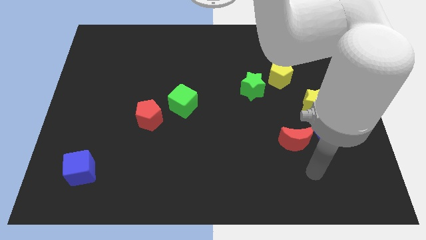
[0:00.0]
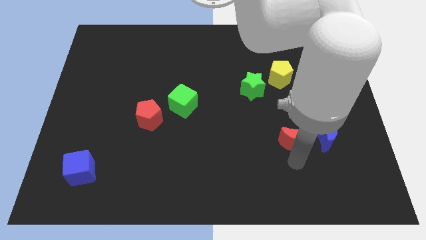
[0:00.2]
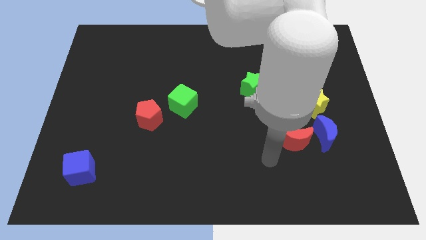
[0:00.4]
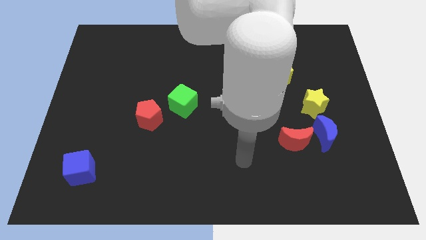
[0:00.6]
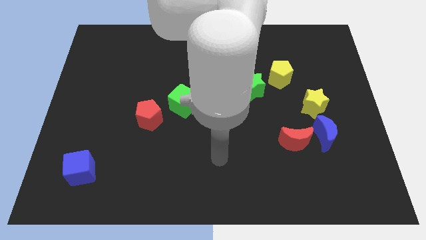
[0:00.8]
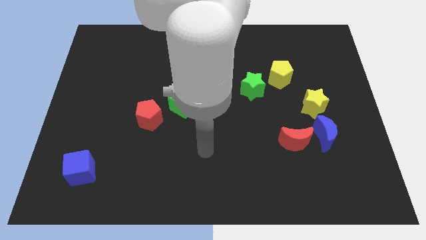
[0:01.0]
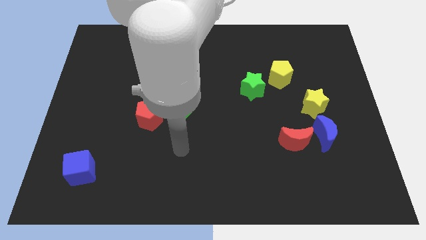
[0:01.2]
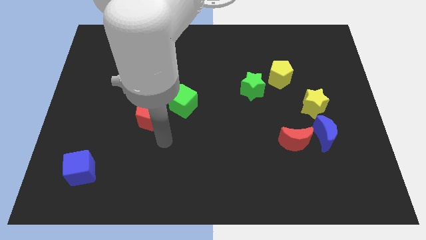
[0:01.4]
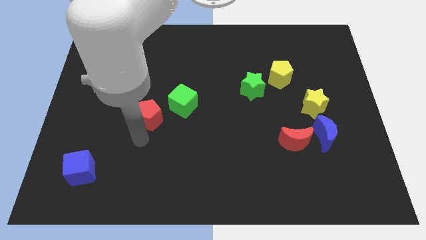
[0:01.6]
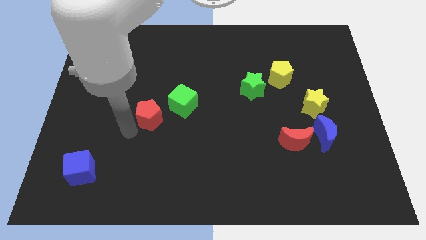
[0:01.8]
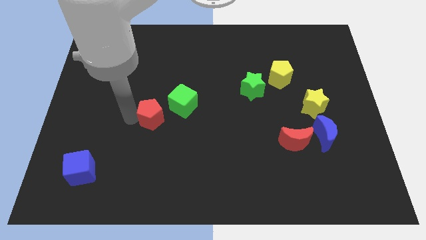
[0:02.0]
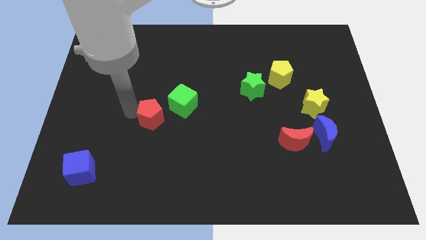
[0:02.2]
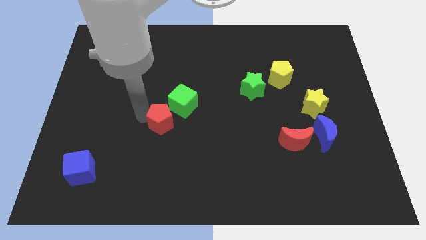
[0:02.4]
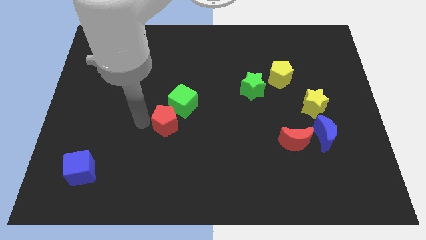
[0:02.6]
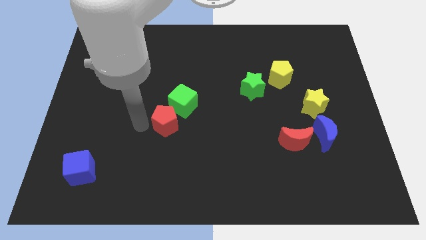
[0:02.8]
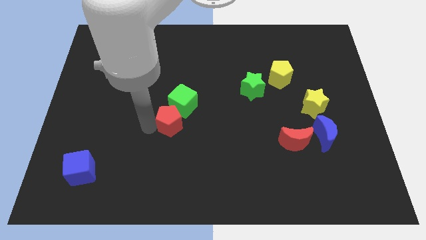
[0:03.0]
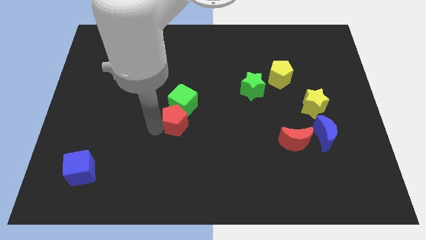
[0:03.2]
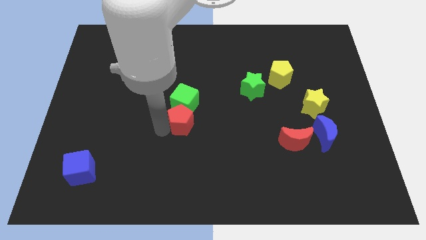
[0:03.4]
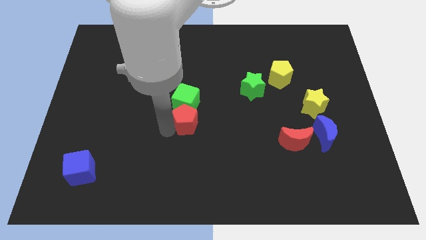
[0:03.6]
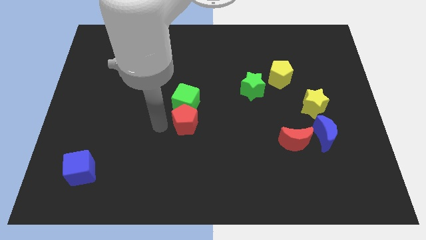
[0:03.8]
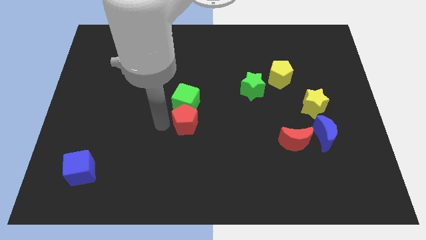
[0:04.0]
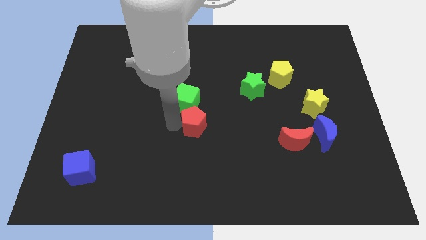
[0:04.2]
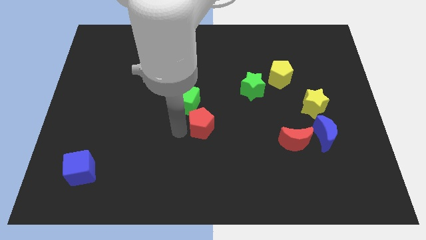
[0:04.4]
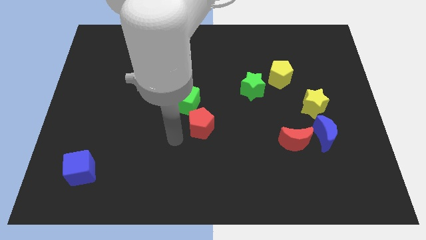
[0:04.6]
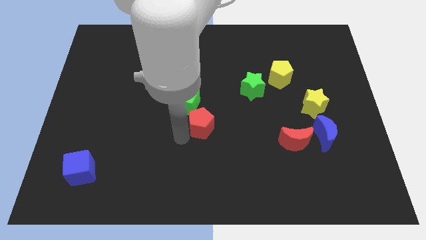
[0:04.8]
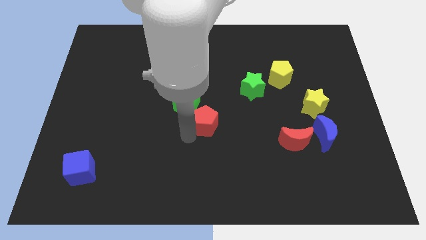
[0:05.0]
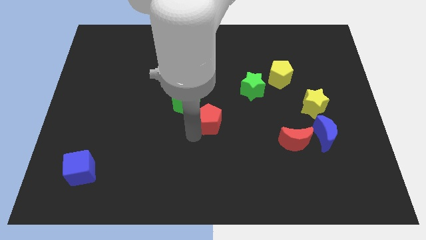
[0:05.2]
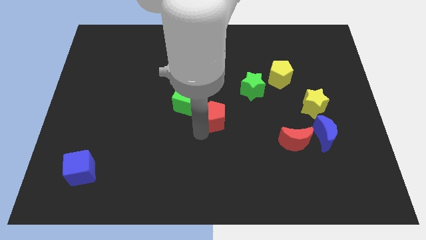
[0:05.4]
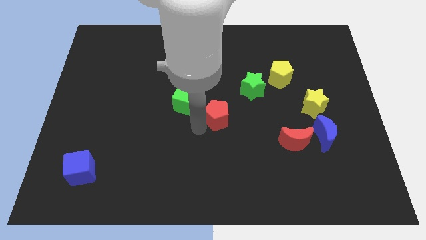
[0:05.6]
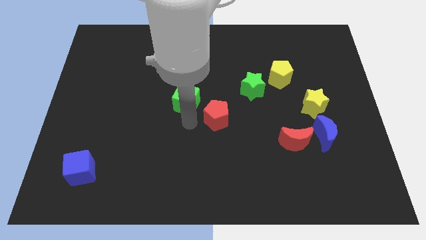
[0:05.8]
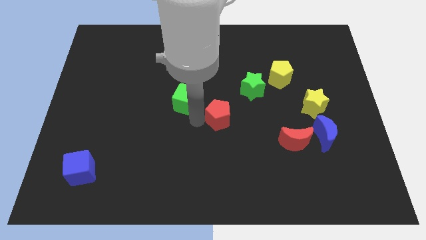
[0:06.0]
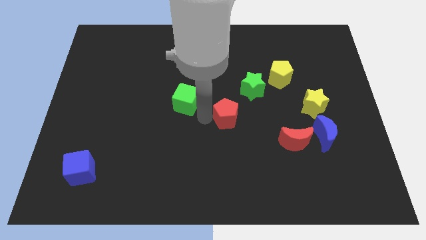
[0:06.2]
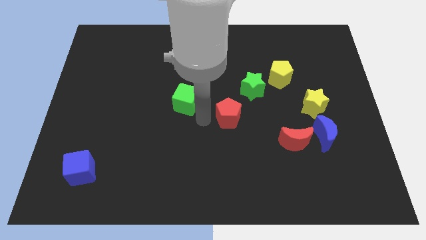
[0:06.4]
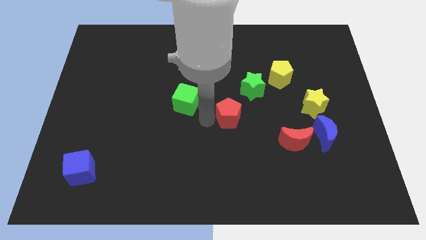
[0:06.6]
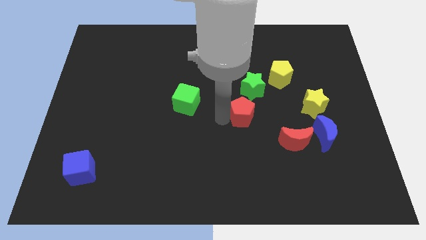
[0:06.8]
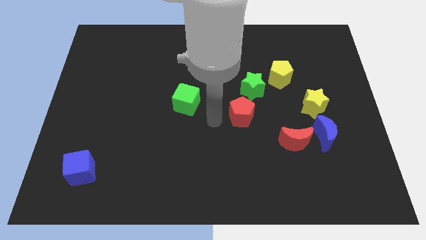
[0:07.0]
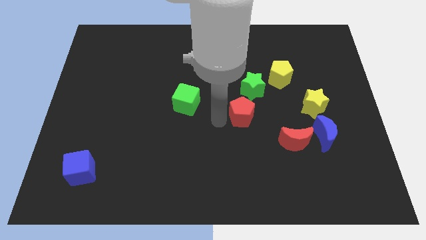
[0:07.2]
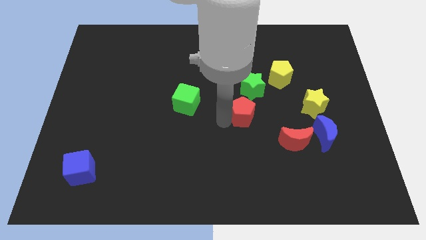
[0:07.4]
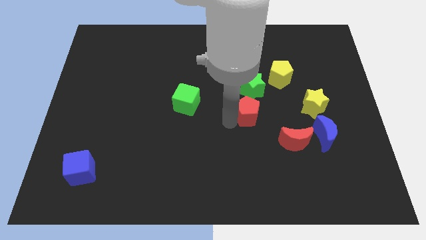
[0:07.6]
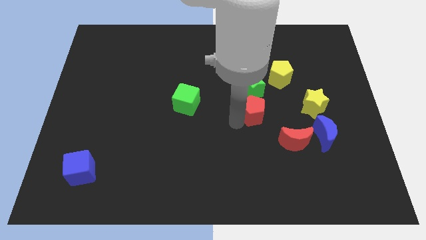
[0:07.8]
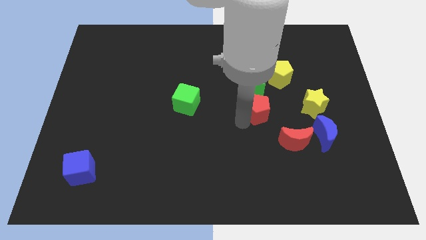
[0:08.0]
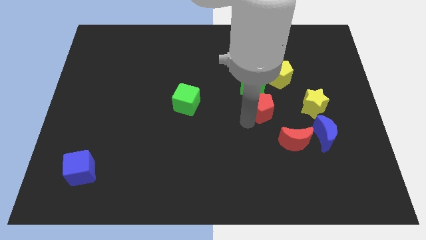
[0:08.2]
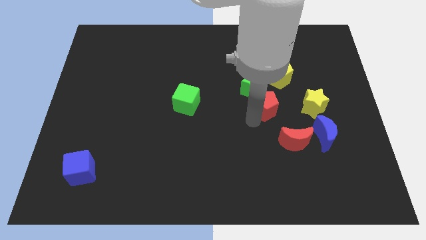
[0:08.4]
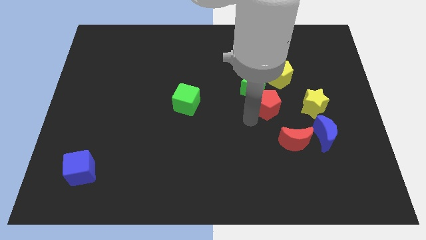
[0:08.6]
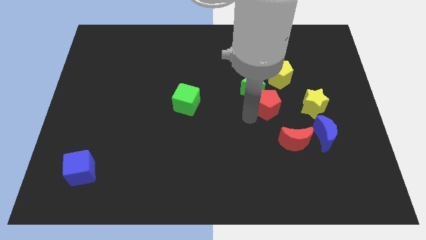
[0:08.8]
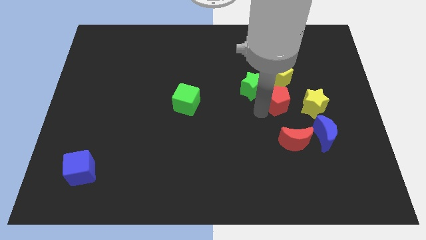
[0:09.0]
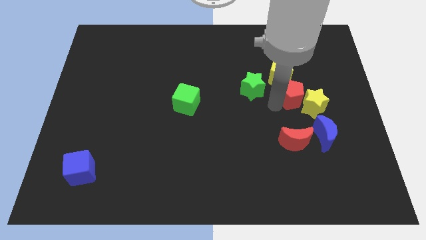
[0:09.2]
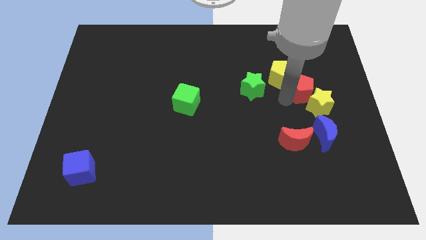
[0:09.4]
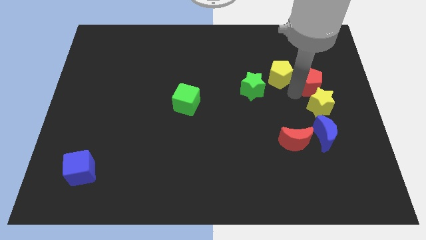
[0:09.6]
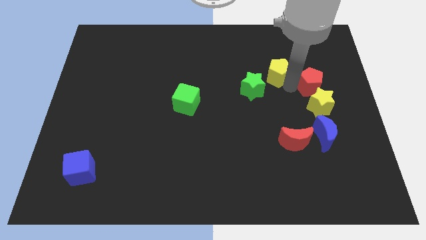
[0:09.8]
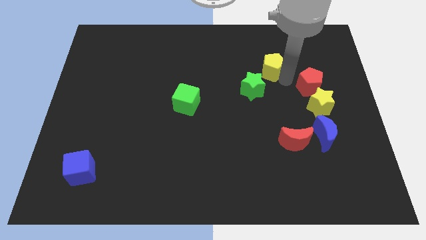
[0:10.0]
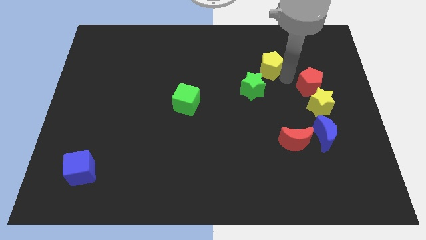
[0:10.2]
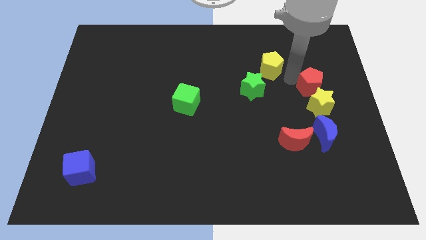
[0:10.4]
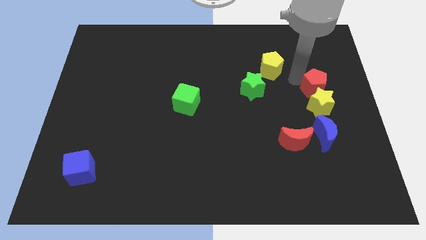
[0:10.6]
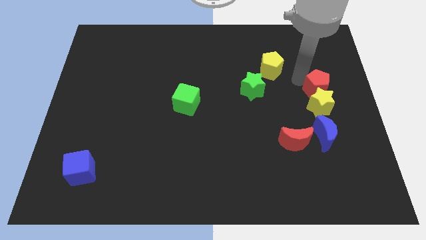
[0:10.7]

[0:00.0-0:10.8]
push the red pentagon to the right side

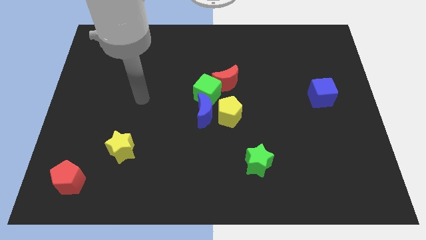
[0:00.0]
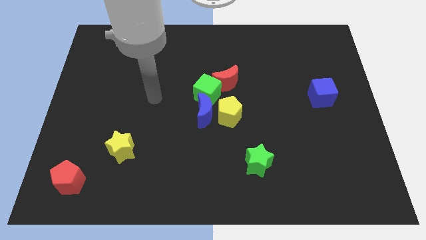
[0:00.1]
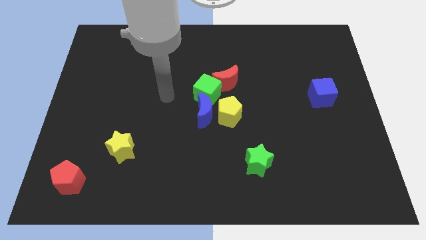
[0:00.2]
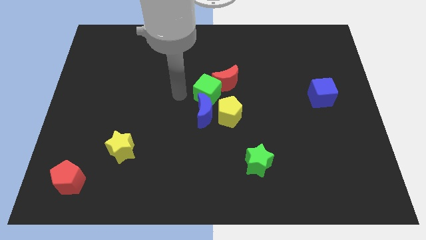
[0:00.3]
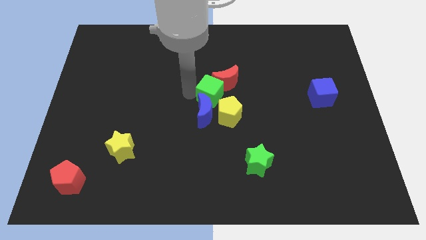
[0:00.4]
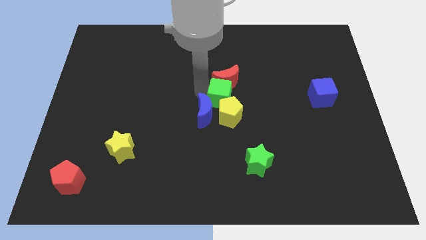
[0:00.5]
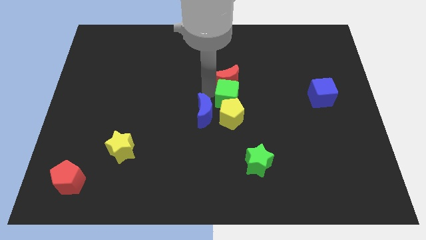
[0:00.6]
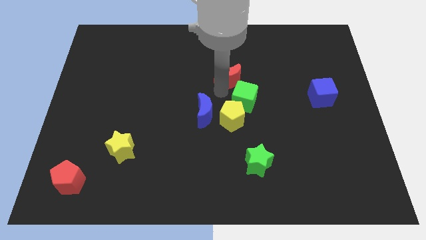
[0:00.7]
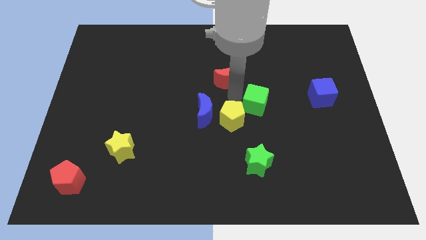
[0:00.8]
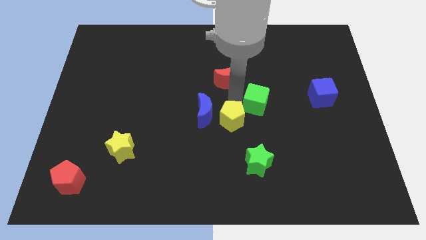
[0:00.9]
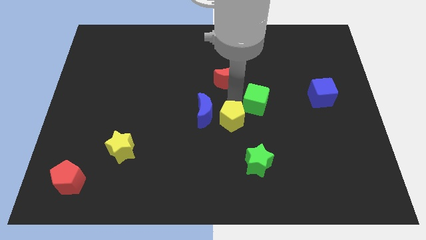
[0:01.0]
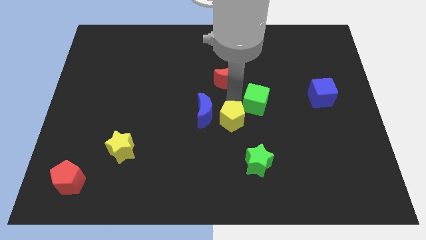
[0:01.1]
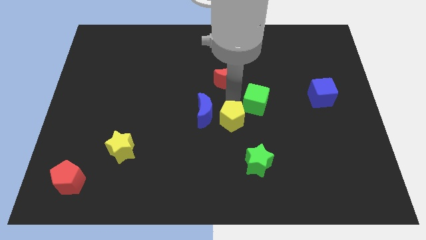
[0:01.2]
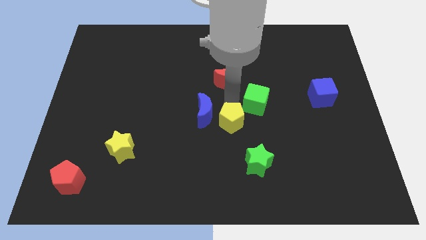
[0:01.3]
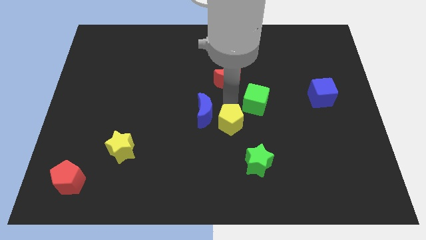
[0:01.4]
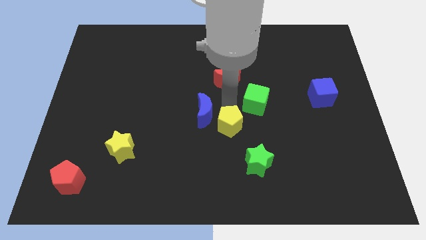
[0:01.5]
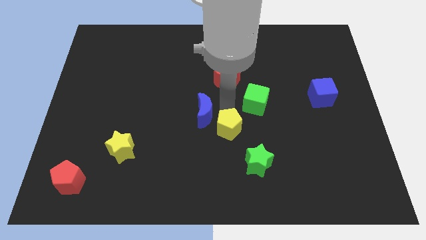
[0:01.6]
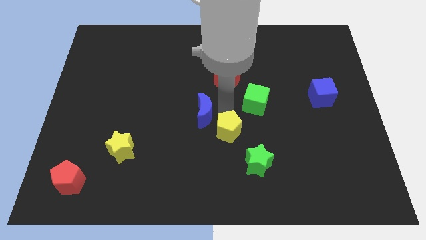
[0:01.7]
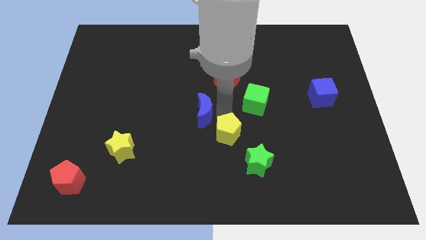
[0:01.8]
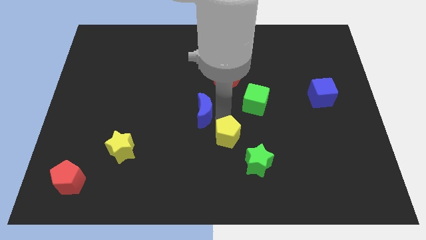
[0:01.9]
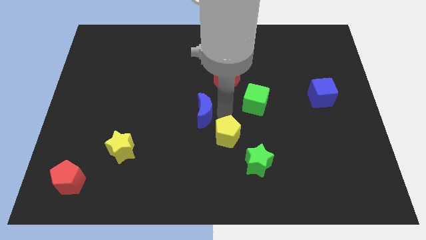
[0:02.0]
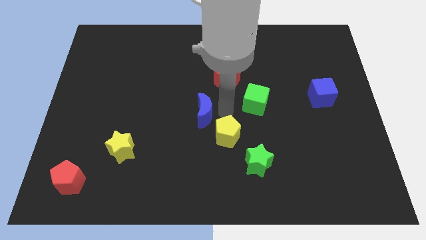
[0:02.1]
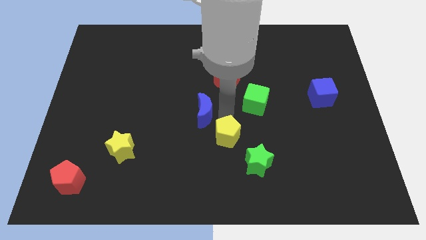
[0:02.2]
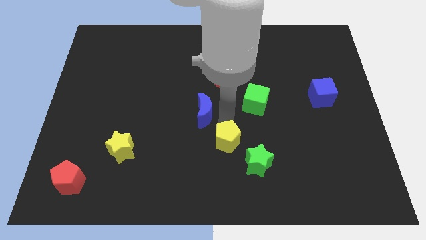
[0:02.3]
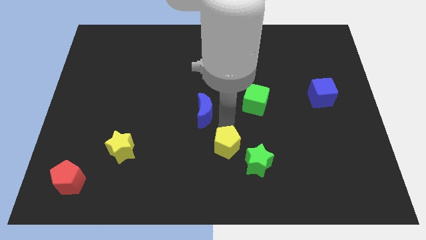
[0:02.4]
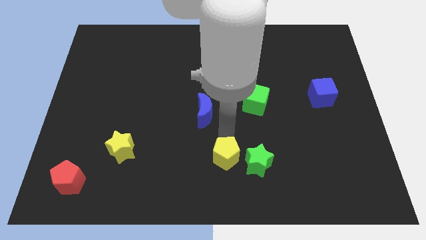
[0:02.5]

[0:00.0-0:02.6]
put the yellow pentagon to the bottom
